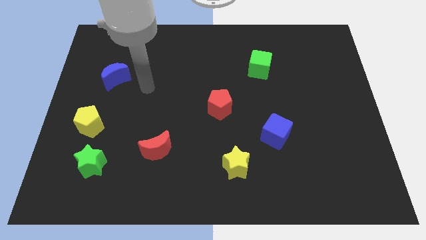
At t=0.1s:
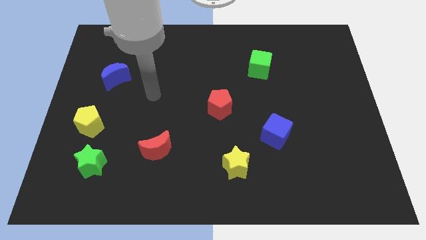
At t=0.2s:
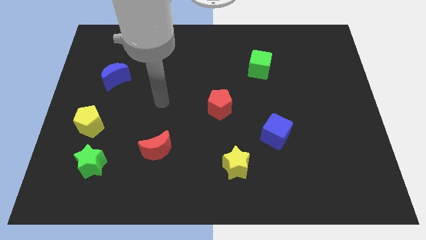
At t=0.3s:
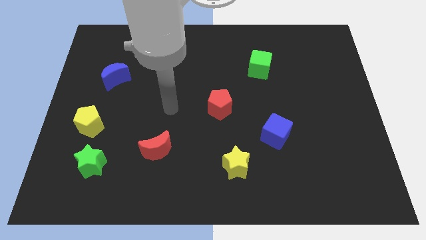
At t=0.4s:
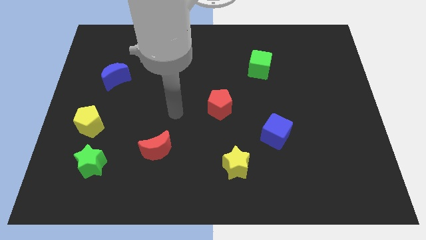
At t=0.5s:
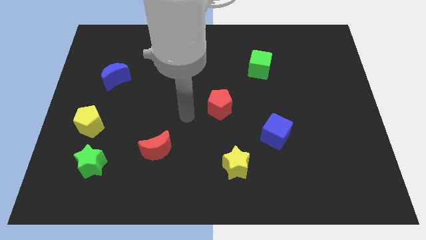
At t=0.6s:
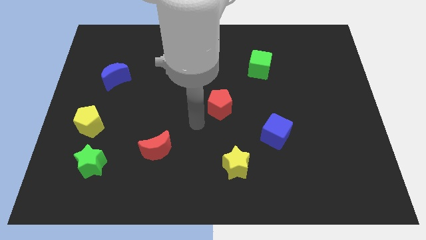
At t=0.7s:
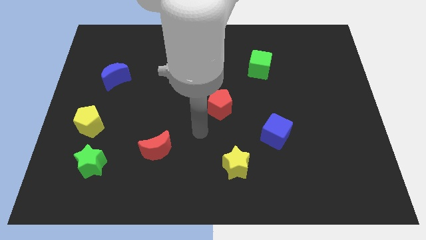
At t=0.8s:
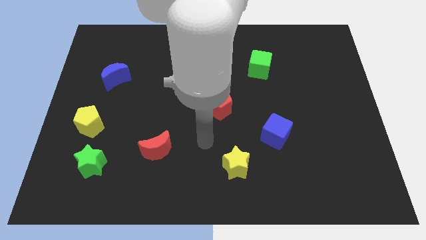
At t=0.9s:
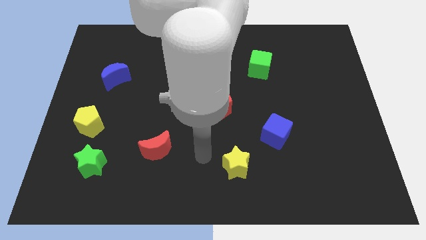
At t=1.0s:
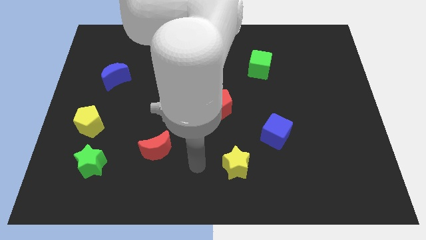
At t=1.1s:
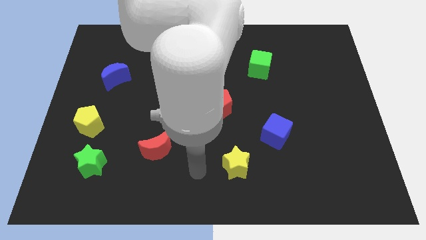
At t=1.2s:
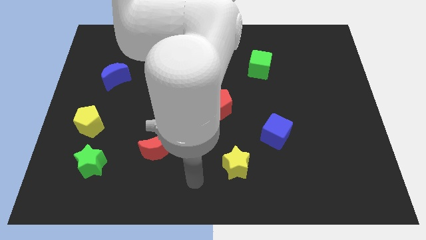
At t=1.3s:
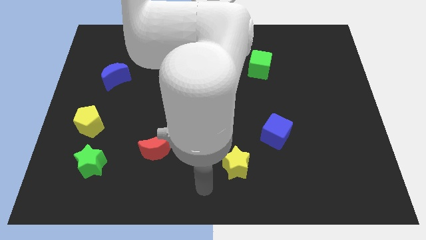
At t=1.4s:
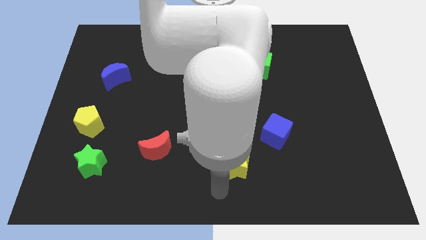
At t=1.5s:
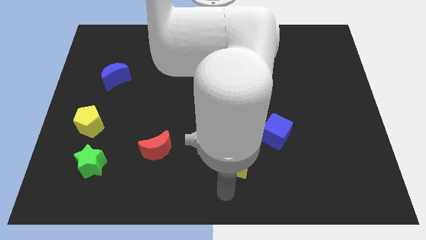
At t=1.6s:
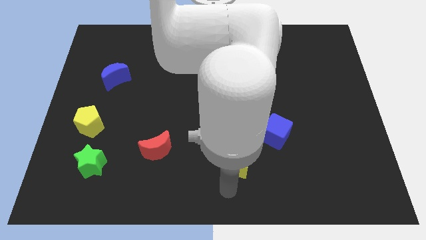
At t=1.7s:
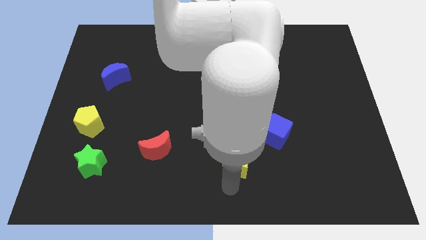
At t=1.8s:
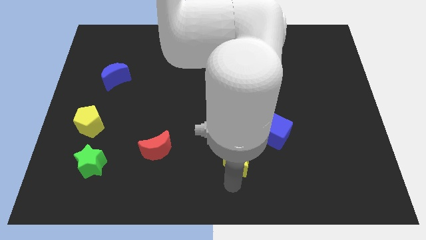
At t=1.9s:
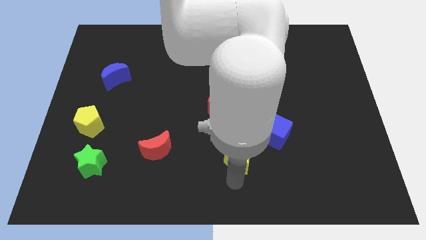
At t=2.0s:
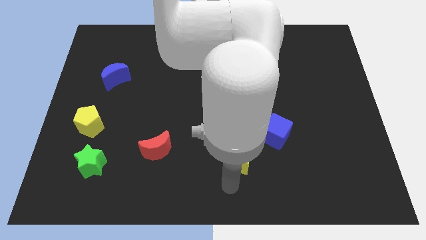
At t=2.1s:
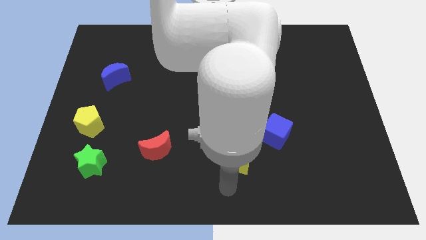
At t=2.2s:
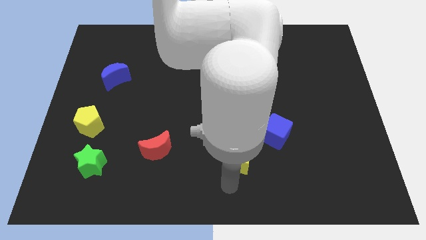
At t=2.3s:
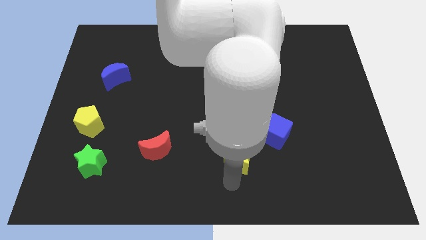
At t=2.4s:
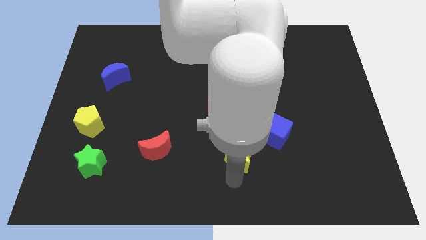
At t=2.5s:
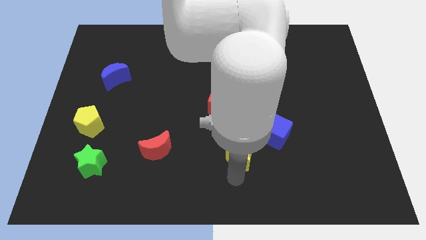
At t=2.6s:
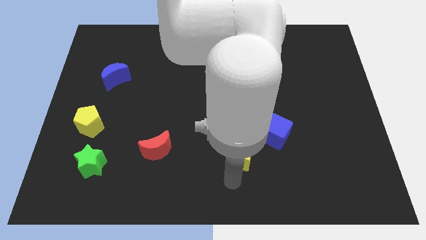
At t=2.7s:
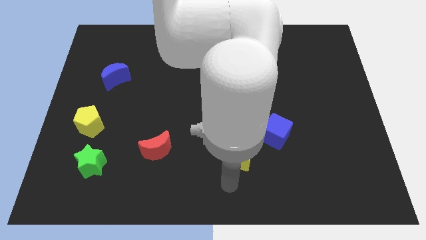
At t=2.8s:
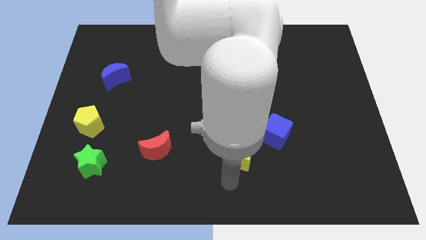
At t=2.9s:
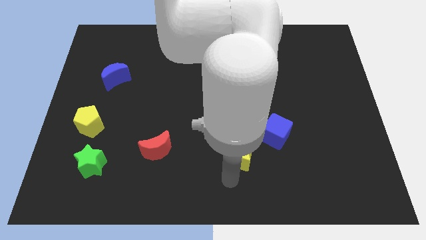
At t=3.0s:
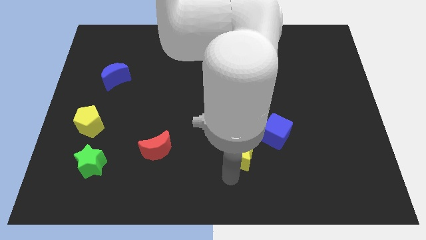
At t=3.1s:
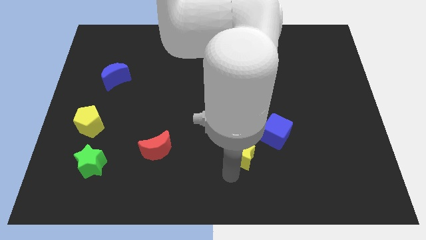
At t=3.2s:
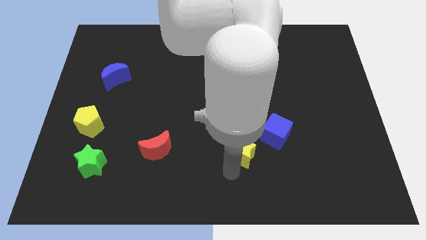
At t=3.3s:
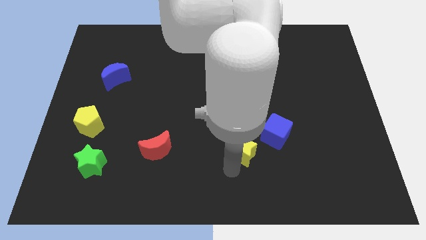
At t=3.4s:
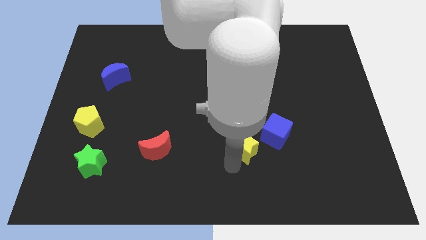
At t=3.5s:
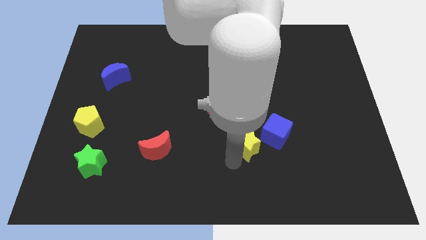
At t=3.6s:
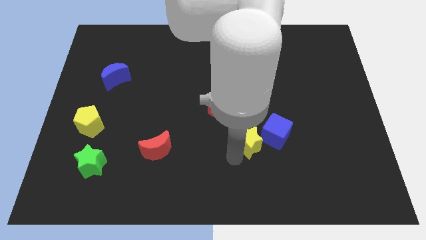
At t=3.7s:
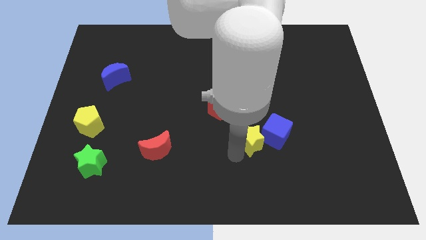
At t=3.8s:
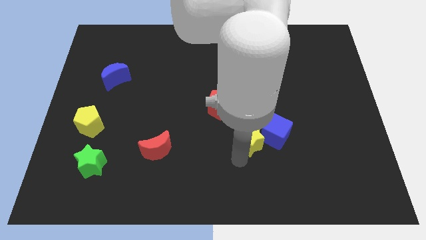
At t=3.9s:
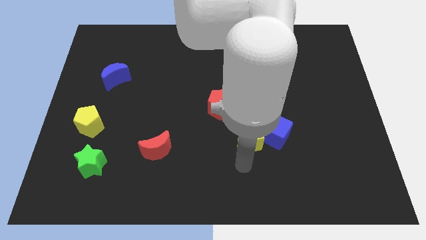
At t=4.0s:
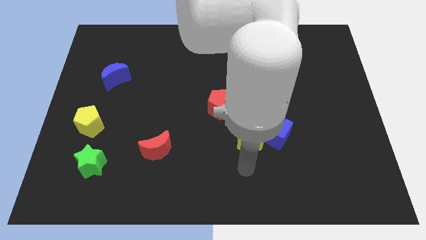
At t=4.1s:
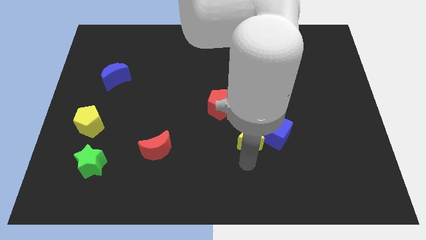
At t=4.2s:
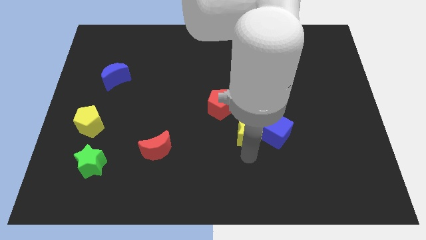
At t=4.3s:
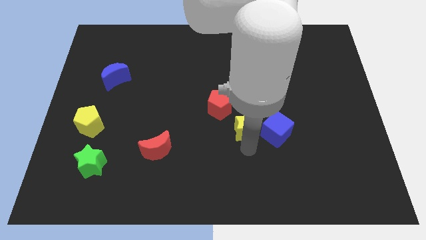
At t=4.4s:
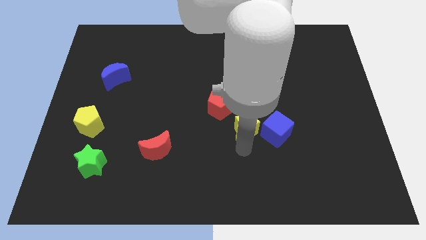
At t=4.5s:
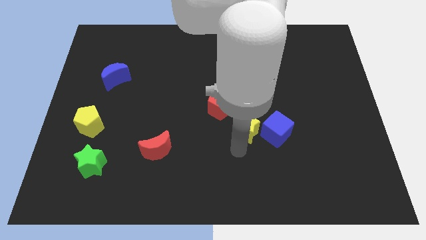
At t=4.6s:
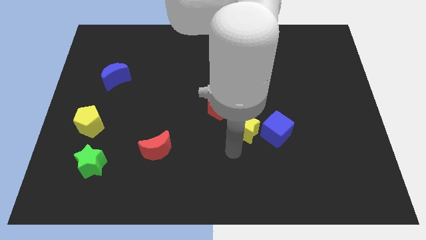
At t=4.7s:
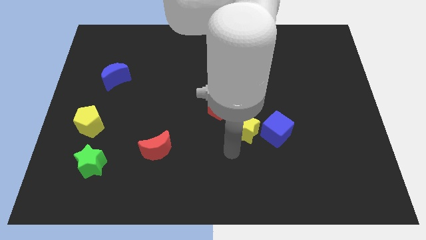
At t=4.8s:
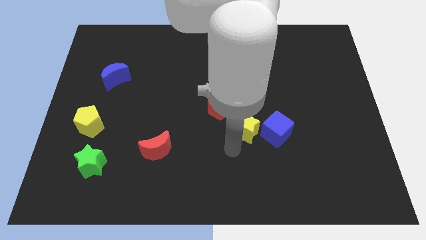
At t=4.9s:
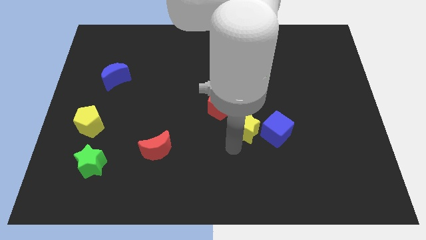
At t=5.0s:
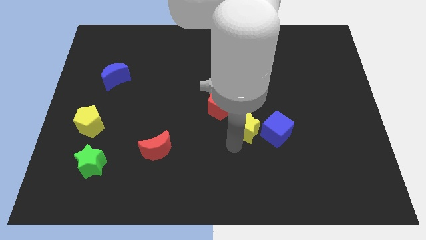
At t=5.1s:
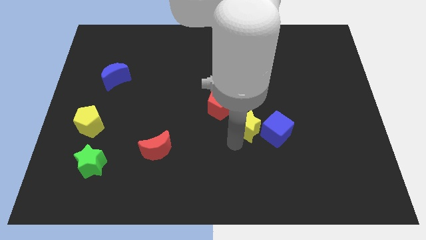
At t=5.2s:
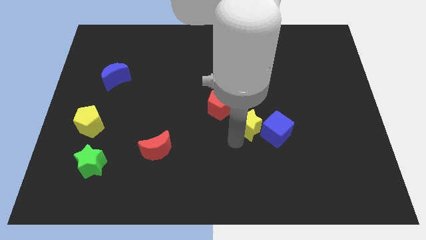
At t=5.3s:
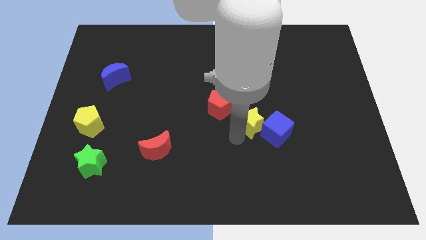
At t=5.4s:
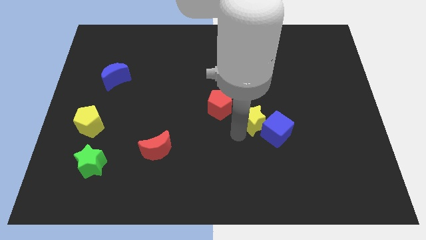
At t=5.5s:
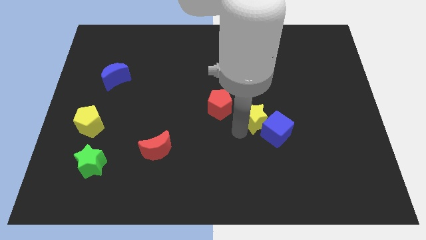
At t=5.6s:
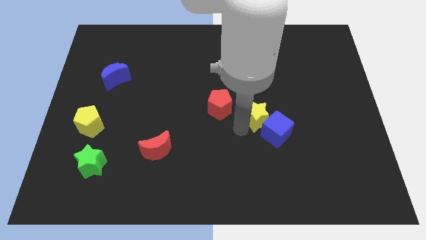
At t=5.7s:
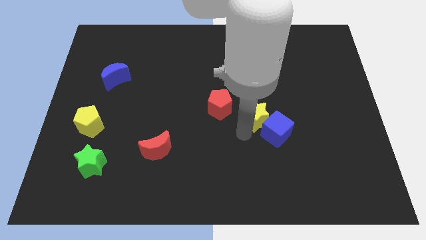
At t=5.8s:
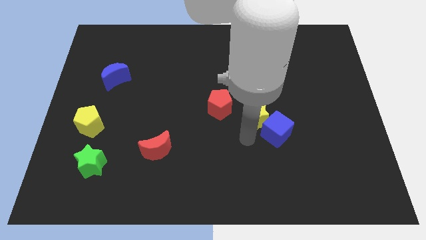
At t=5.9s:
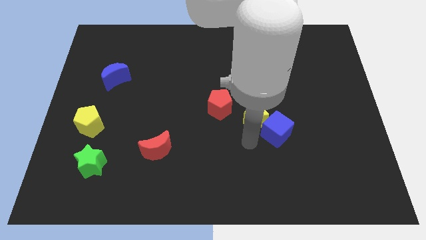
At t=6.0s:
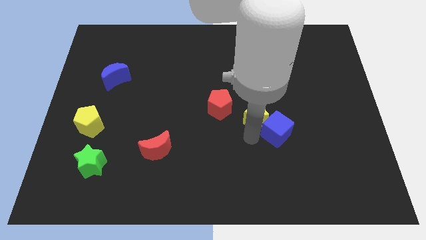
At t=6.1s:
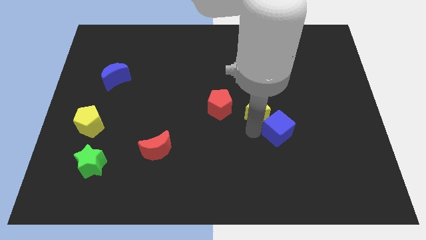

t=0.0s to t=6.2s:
move the yellow star below the green cube

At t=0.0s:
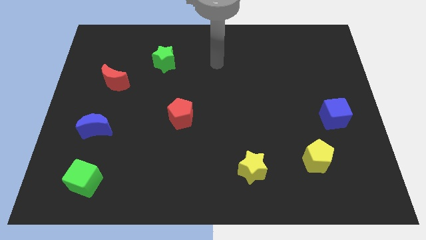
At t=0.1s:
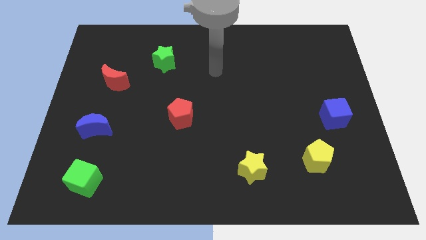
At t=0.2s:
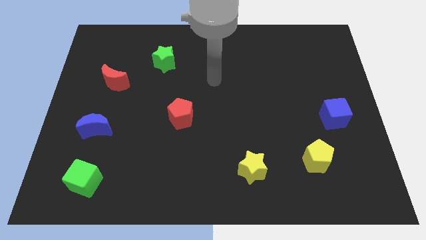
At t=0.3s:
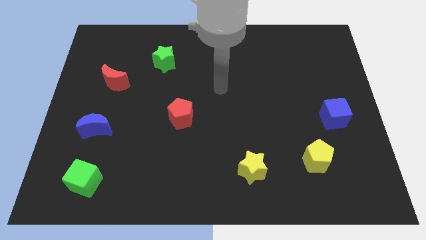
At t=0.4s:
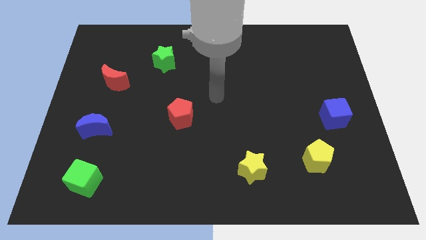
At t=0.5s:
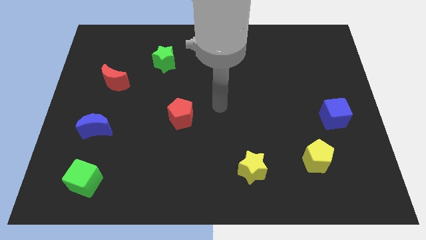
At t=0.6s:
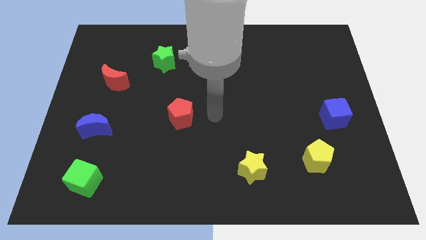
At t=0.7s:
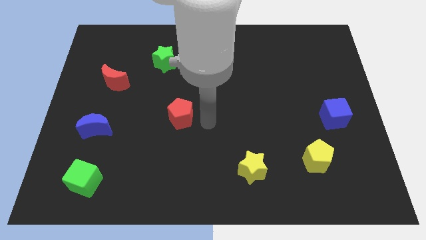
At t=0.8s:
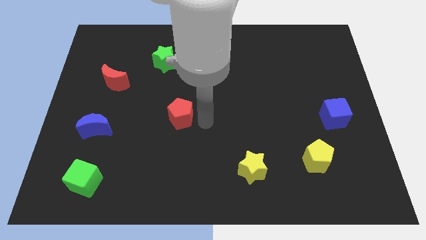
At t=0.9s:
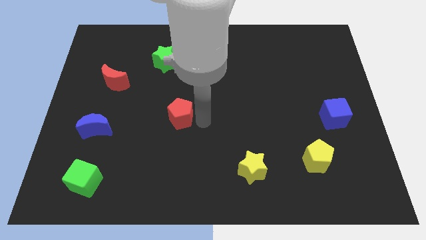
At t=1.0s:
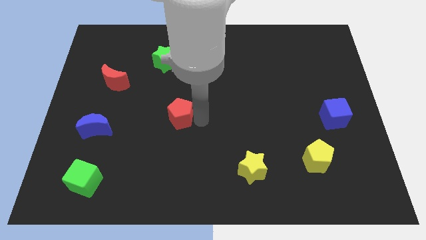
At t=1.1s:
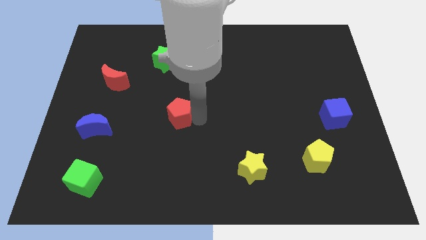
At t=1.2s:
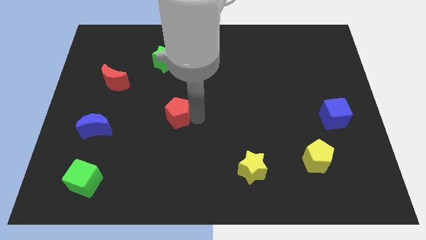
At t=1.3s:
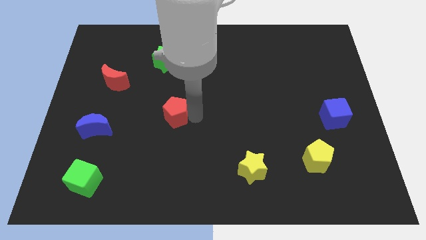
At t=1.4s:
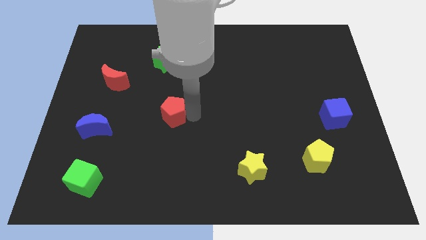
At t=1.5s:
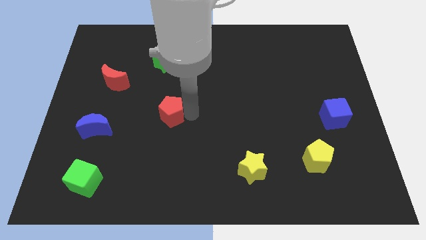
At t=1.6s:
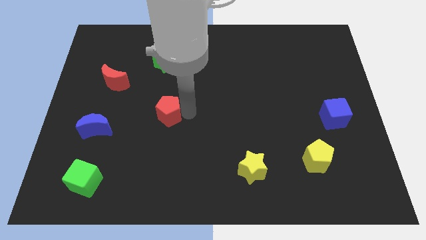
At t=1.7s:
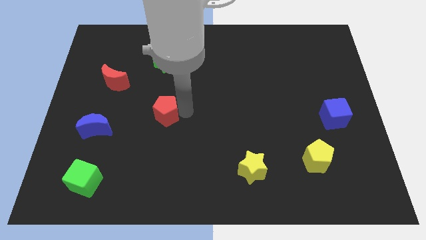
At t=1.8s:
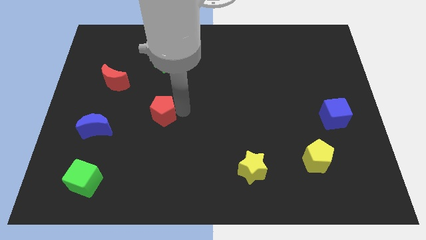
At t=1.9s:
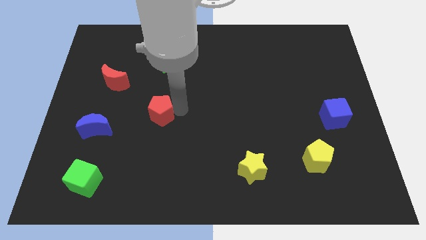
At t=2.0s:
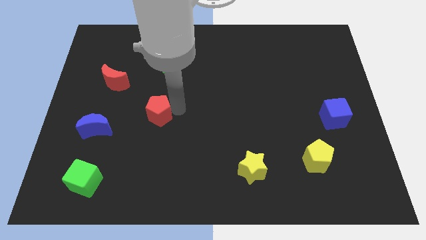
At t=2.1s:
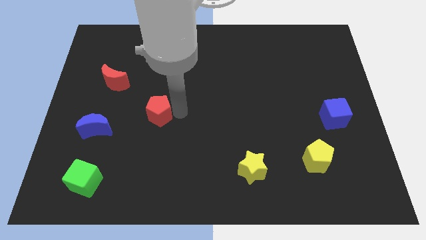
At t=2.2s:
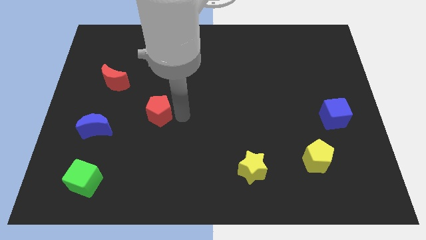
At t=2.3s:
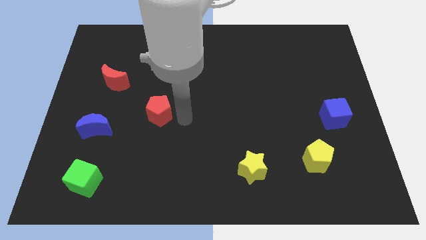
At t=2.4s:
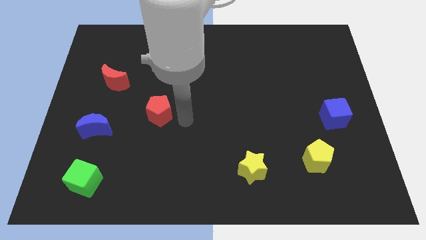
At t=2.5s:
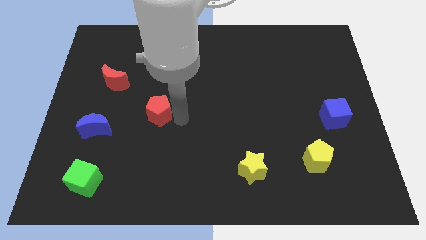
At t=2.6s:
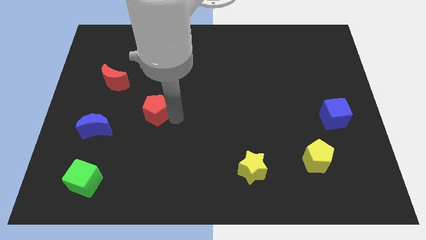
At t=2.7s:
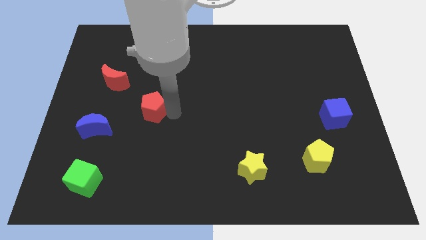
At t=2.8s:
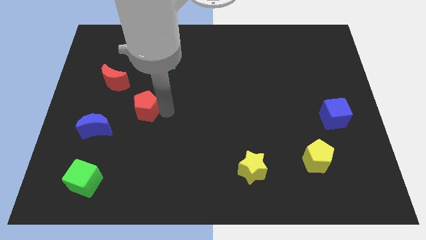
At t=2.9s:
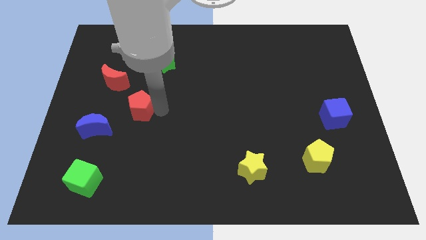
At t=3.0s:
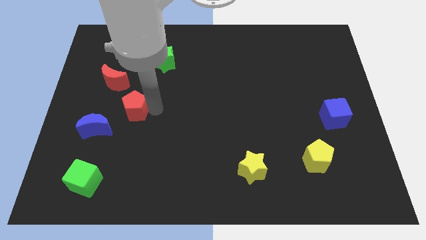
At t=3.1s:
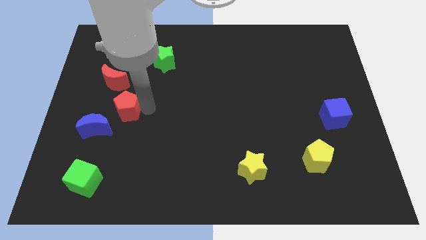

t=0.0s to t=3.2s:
push the red pentagon to the bottom side of the red moon
